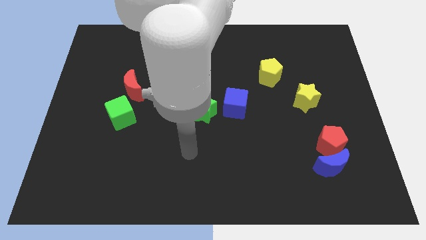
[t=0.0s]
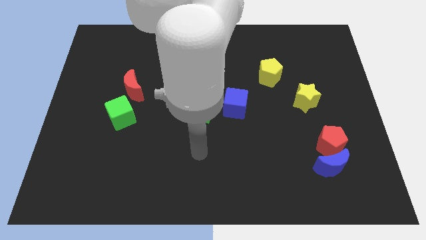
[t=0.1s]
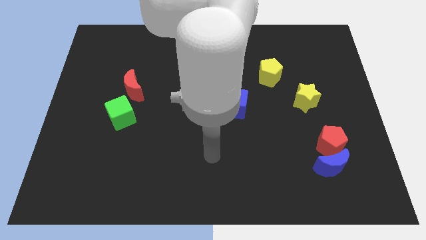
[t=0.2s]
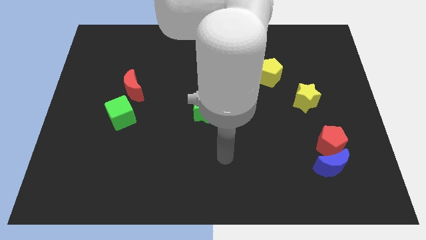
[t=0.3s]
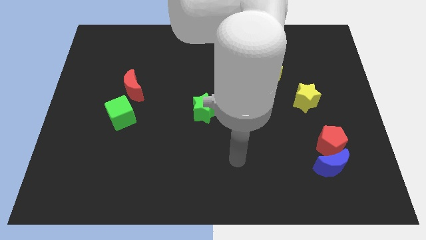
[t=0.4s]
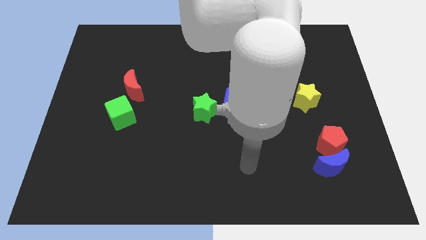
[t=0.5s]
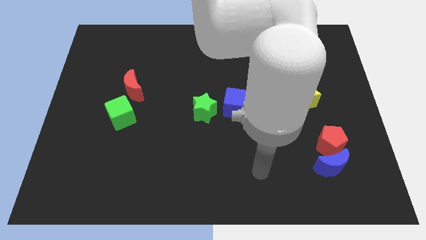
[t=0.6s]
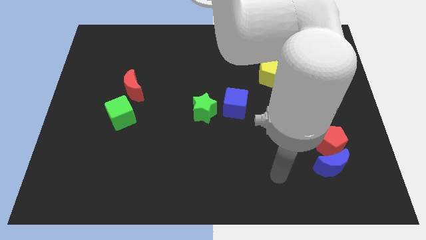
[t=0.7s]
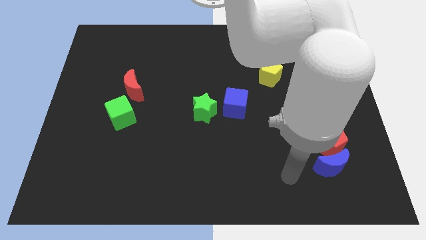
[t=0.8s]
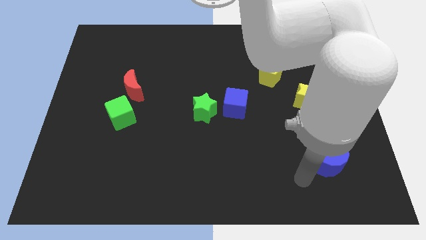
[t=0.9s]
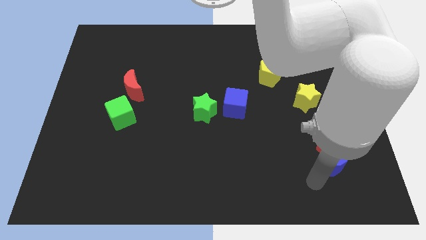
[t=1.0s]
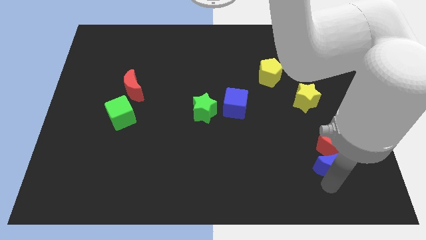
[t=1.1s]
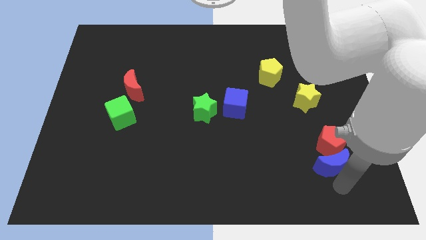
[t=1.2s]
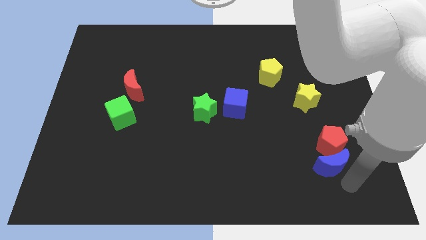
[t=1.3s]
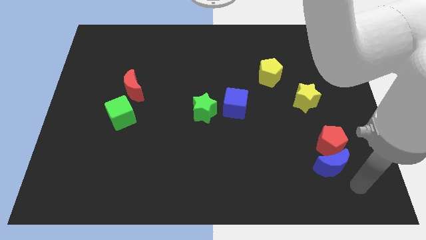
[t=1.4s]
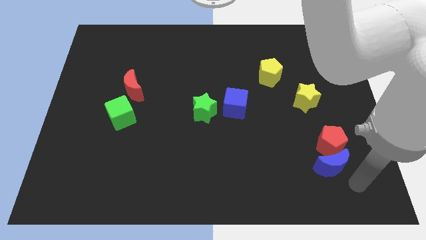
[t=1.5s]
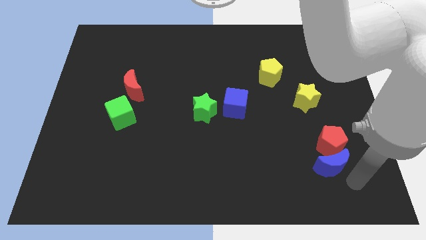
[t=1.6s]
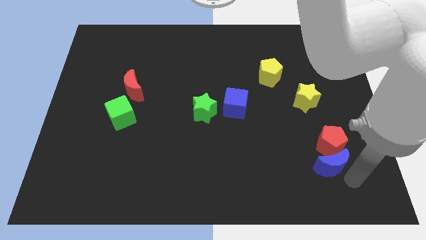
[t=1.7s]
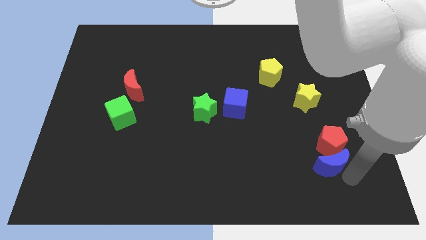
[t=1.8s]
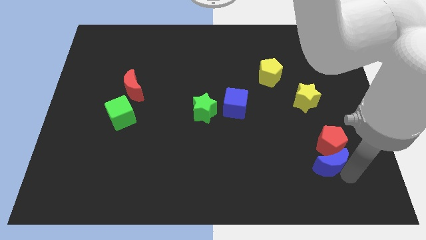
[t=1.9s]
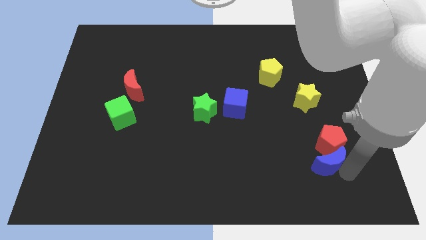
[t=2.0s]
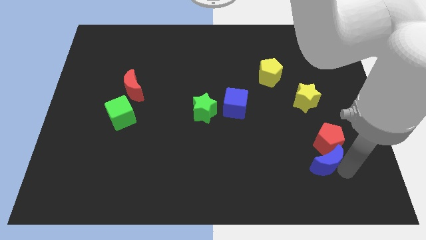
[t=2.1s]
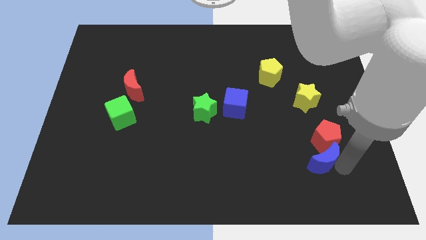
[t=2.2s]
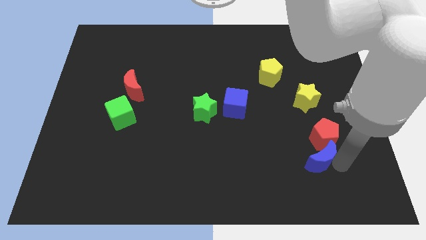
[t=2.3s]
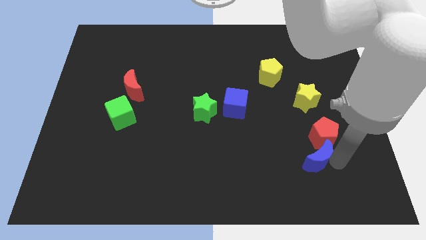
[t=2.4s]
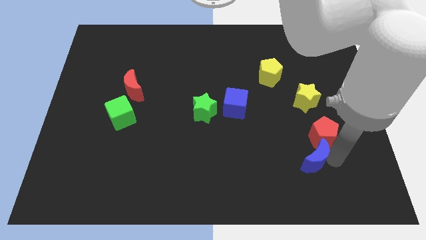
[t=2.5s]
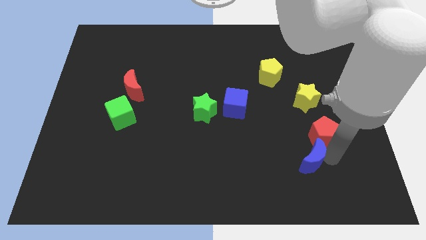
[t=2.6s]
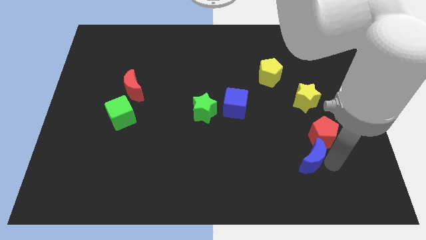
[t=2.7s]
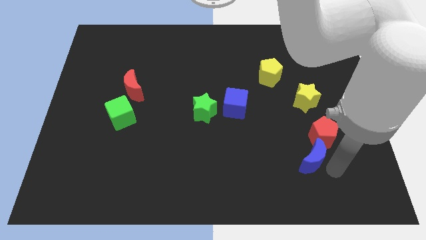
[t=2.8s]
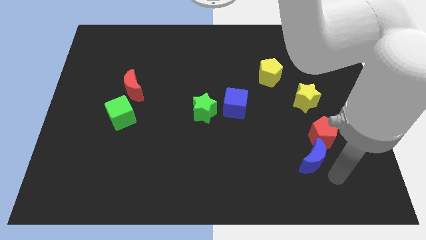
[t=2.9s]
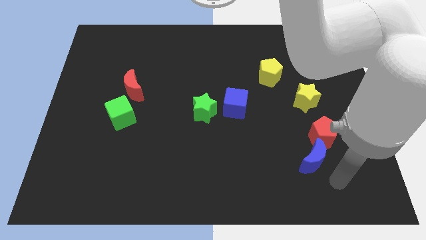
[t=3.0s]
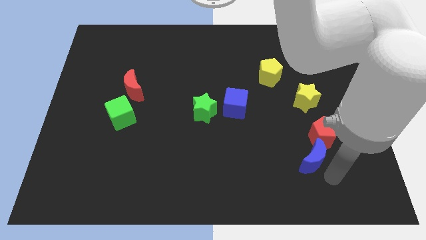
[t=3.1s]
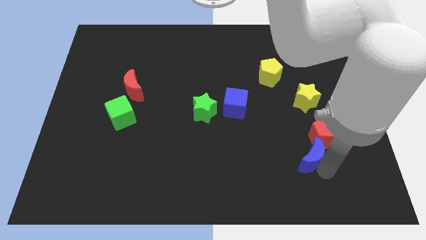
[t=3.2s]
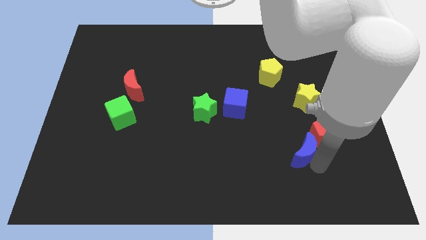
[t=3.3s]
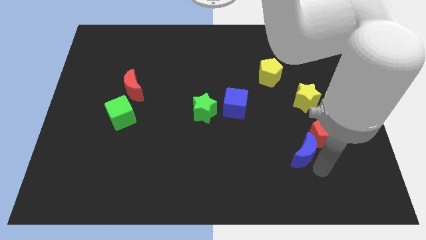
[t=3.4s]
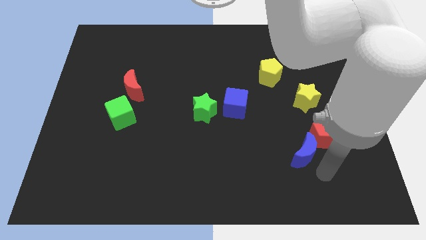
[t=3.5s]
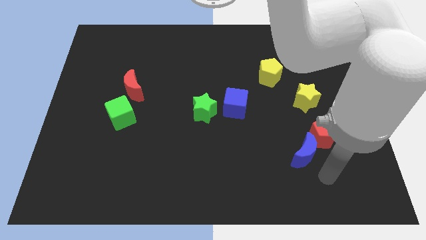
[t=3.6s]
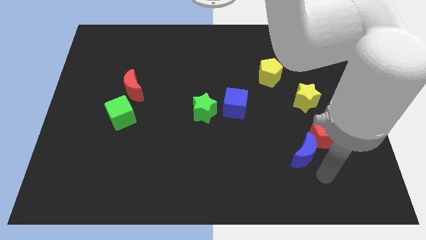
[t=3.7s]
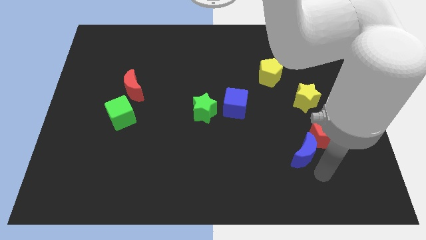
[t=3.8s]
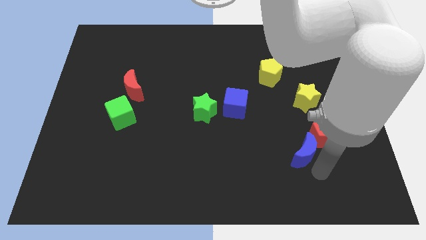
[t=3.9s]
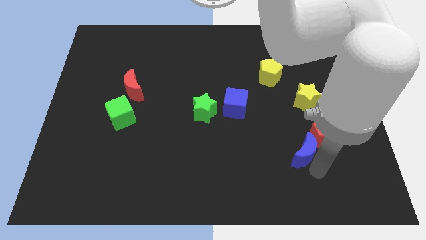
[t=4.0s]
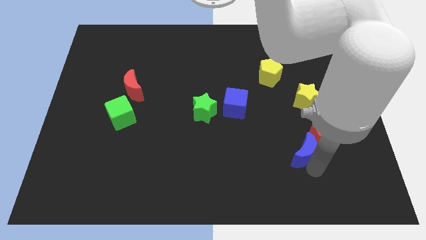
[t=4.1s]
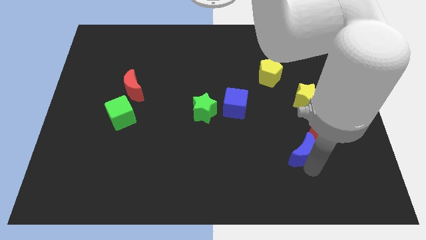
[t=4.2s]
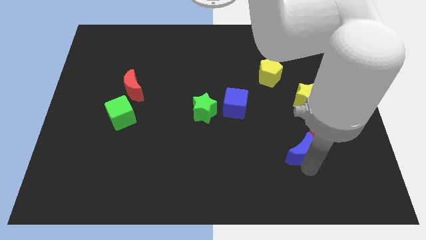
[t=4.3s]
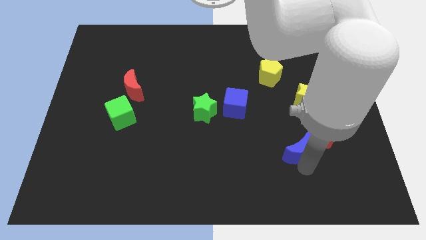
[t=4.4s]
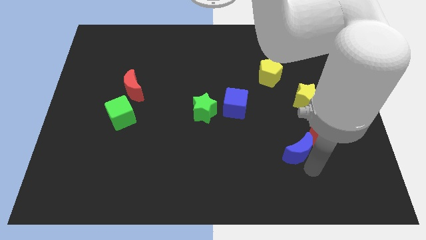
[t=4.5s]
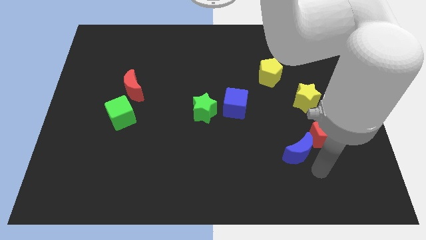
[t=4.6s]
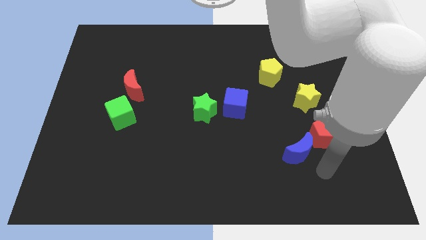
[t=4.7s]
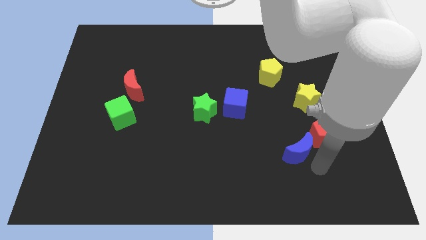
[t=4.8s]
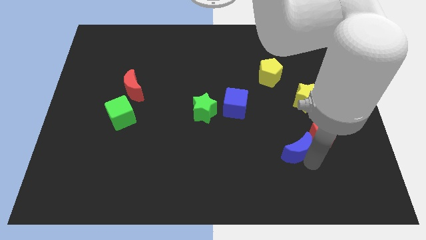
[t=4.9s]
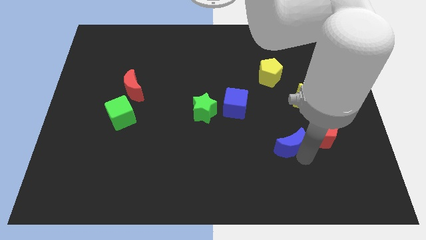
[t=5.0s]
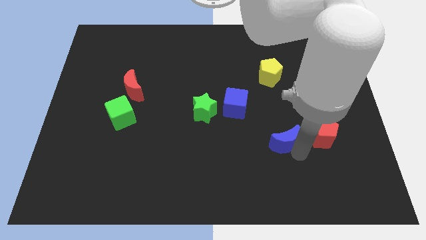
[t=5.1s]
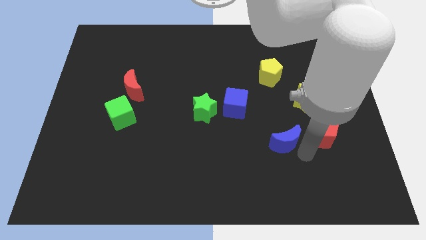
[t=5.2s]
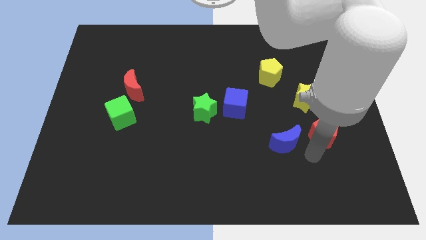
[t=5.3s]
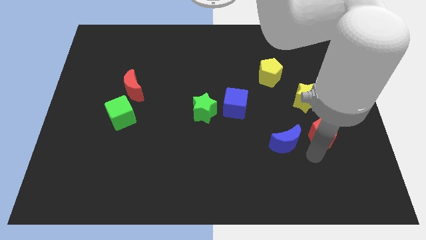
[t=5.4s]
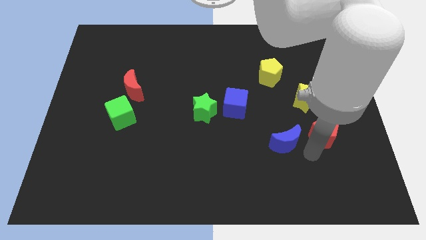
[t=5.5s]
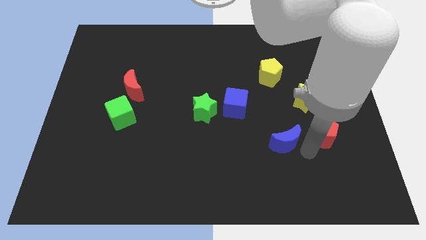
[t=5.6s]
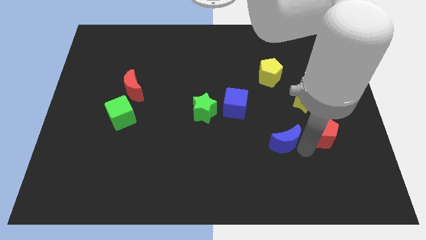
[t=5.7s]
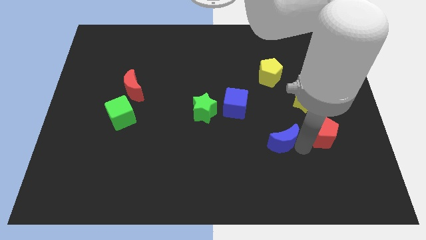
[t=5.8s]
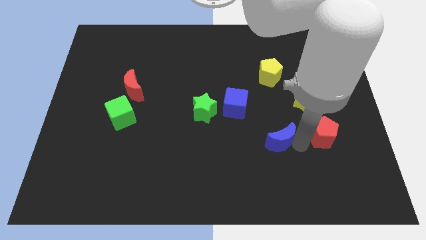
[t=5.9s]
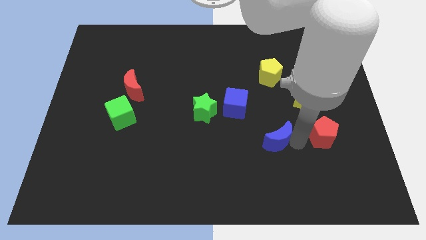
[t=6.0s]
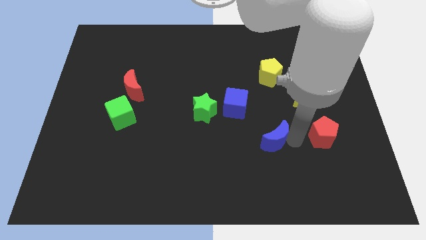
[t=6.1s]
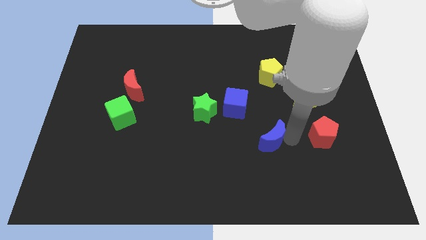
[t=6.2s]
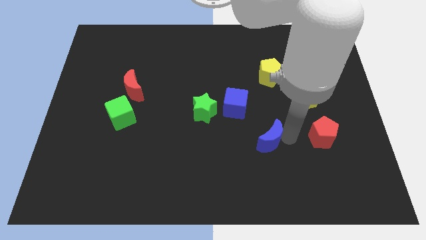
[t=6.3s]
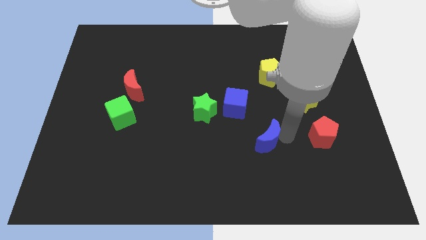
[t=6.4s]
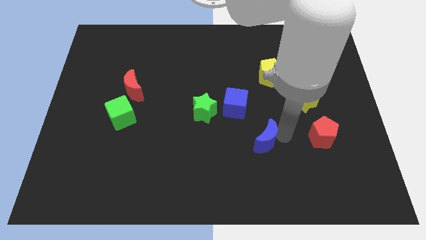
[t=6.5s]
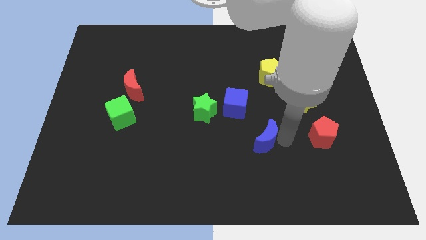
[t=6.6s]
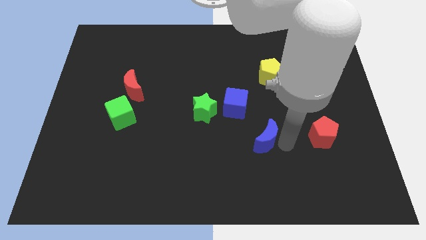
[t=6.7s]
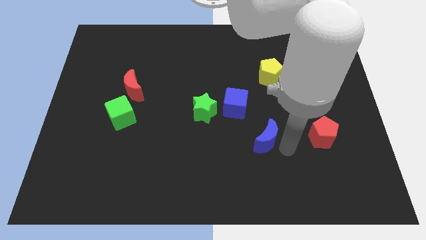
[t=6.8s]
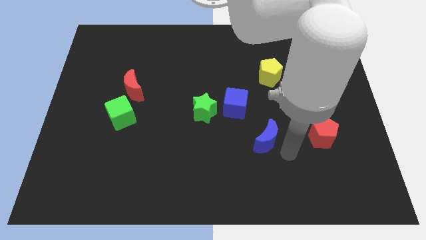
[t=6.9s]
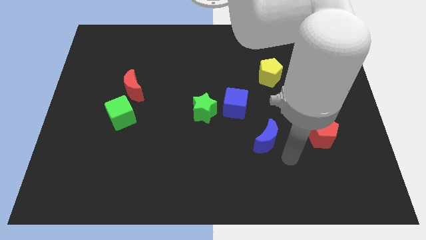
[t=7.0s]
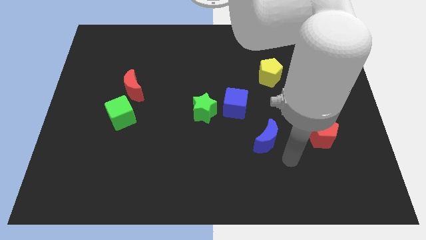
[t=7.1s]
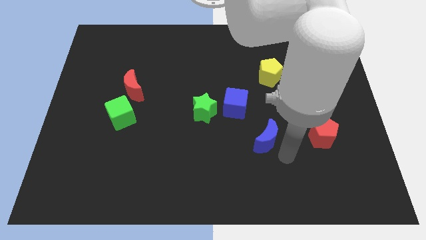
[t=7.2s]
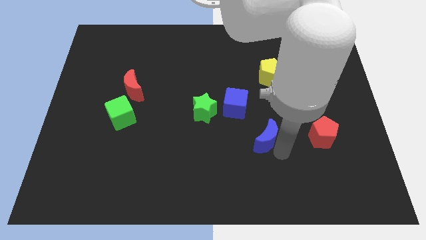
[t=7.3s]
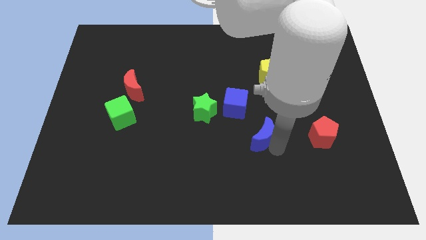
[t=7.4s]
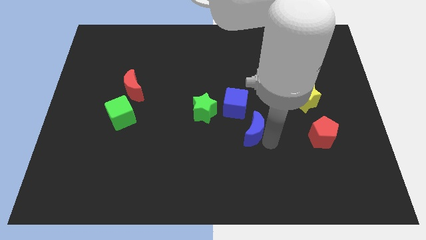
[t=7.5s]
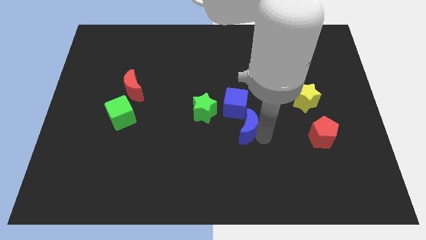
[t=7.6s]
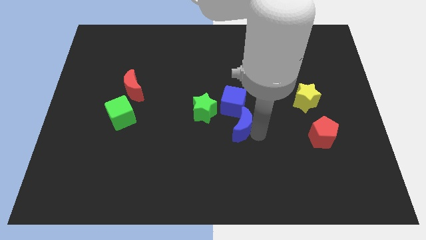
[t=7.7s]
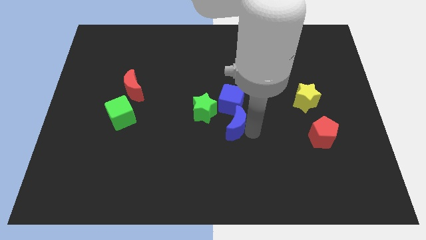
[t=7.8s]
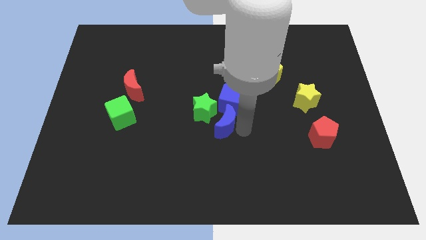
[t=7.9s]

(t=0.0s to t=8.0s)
put the blue moon to the green star
